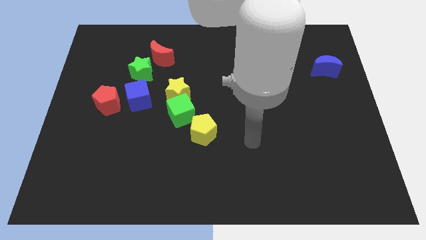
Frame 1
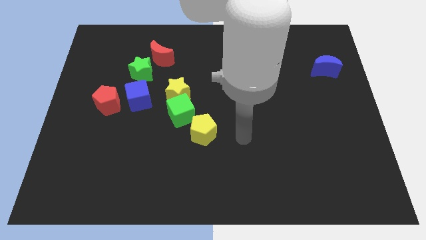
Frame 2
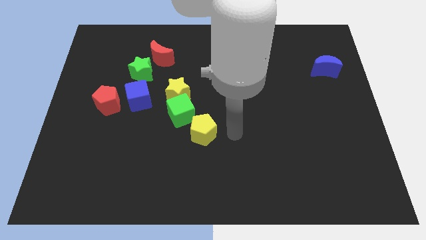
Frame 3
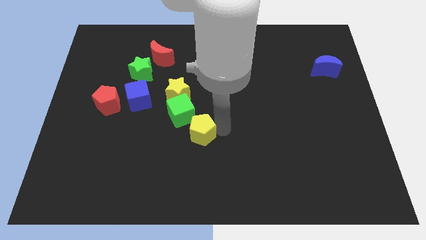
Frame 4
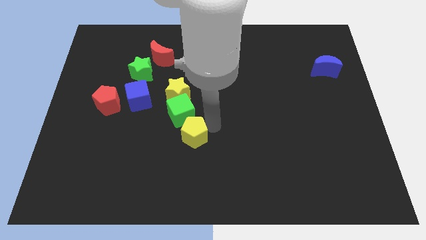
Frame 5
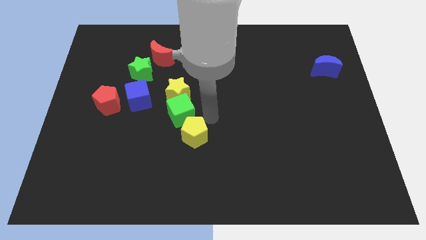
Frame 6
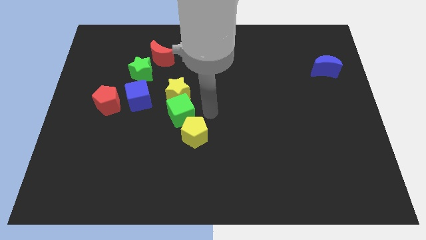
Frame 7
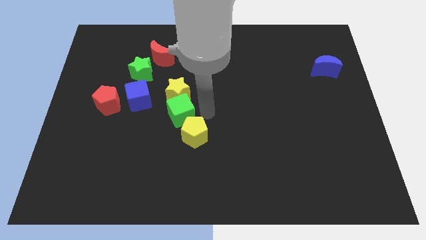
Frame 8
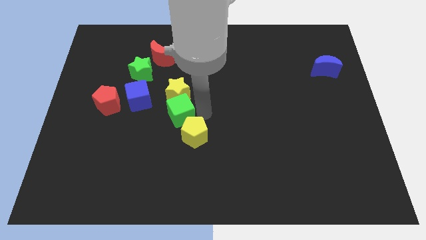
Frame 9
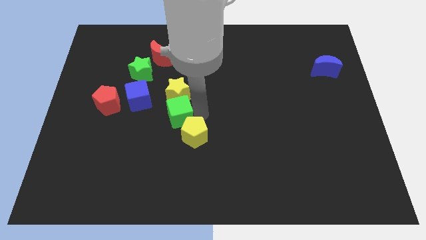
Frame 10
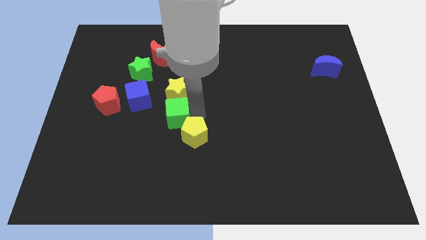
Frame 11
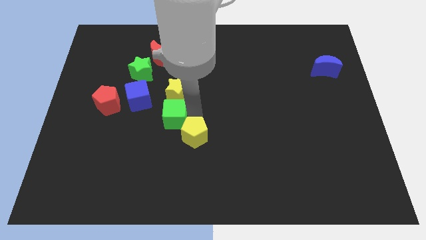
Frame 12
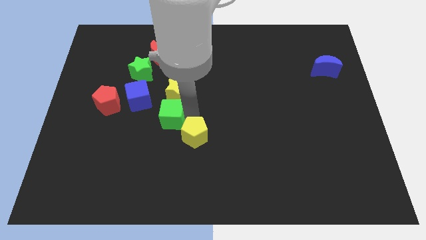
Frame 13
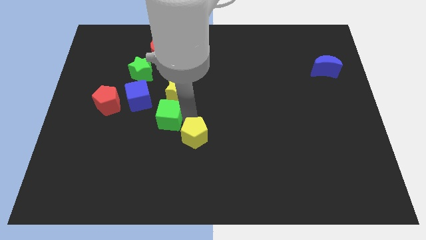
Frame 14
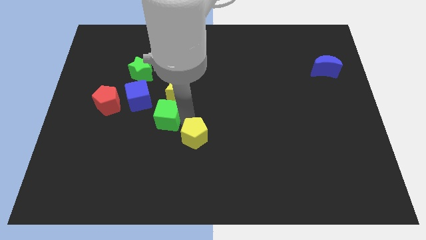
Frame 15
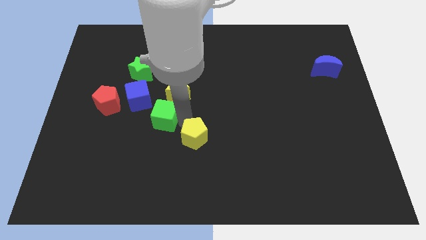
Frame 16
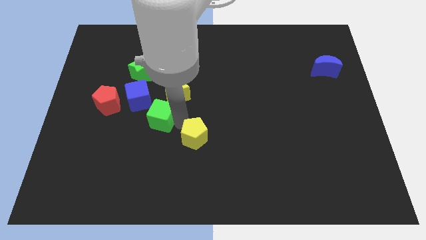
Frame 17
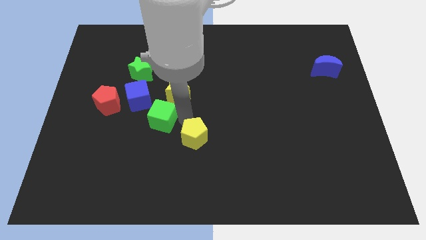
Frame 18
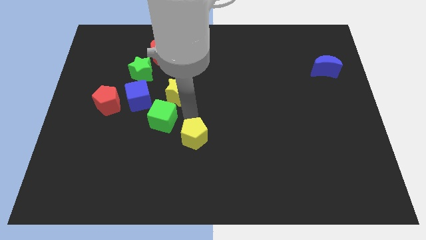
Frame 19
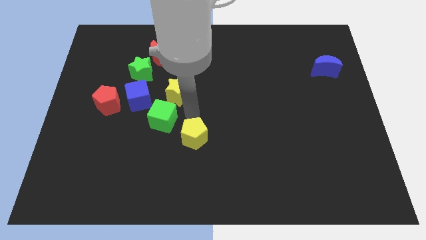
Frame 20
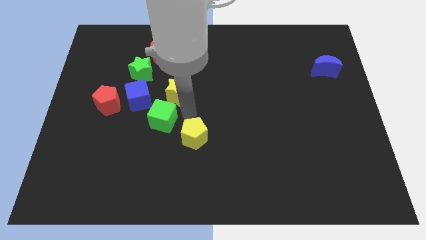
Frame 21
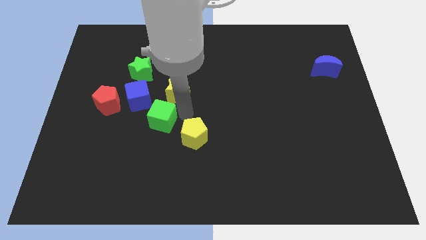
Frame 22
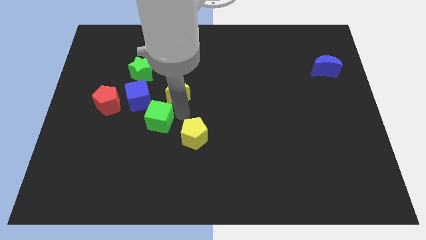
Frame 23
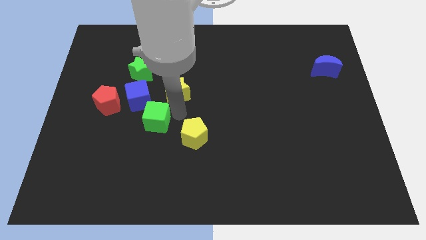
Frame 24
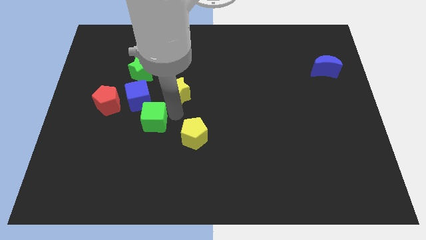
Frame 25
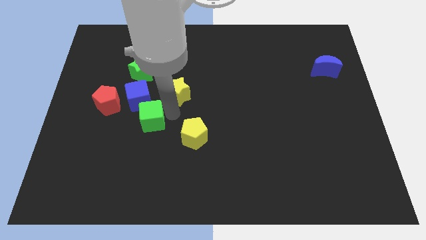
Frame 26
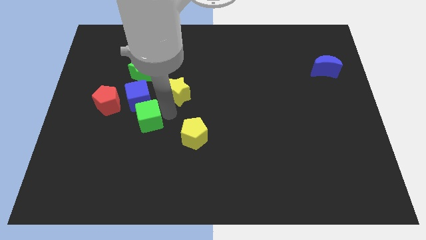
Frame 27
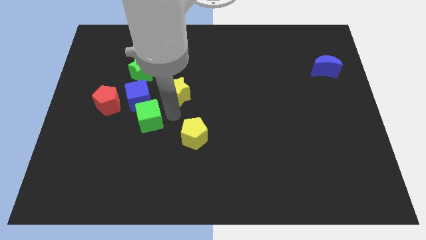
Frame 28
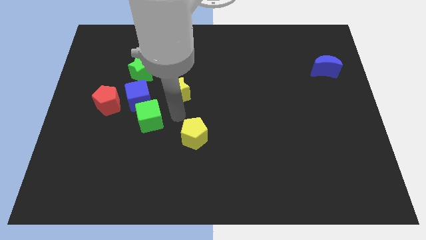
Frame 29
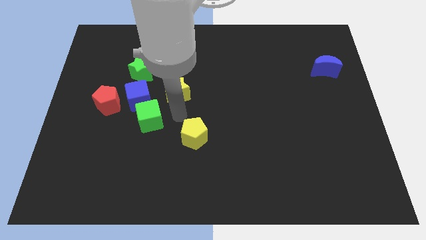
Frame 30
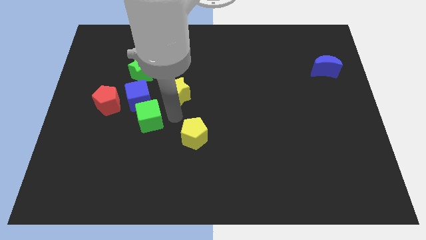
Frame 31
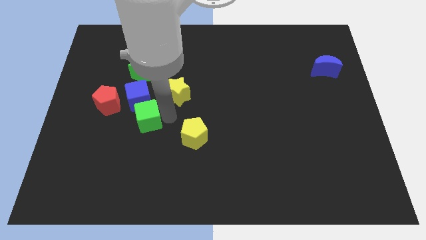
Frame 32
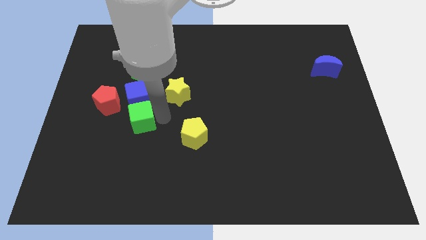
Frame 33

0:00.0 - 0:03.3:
move the green cube away from the yellow star and yellow pentagon

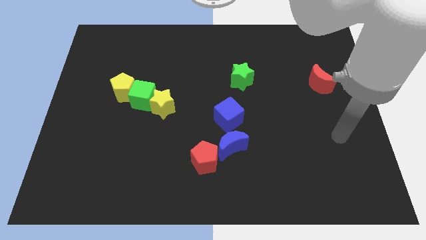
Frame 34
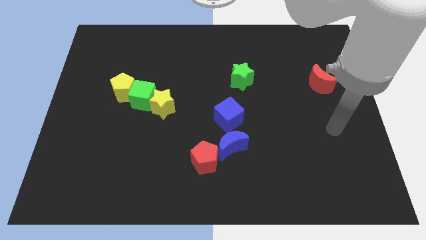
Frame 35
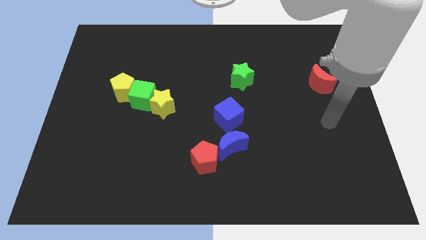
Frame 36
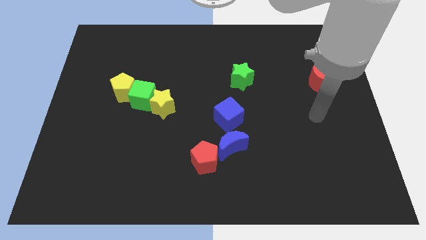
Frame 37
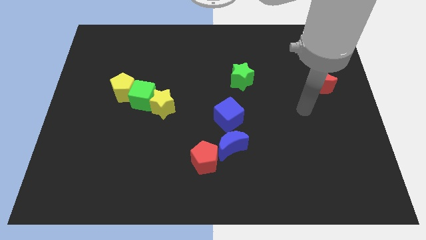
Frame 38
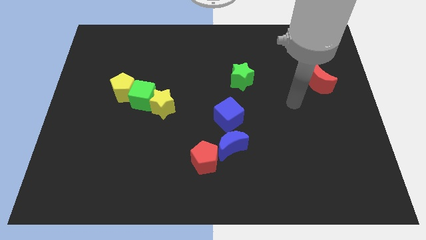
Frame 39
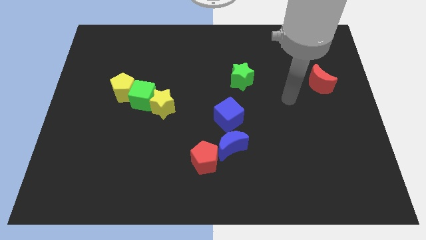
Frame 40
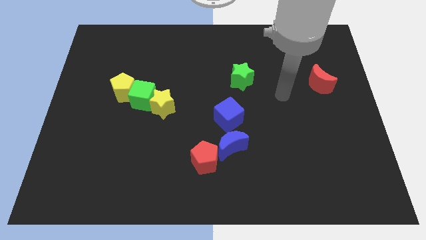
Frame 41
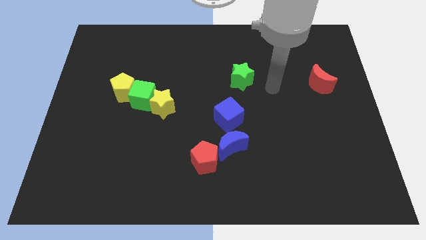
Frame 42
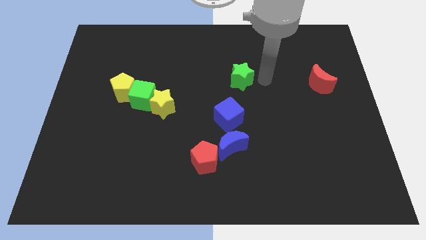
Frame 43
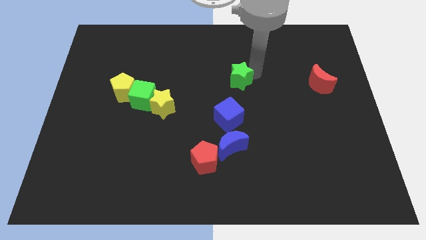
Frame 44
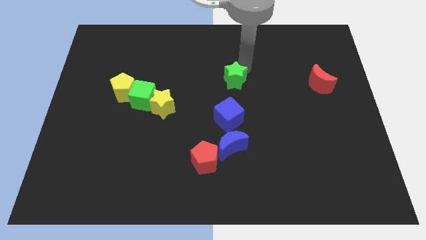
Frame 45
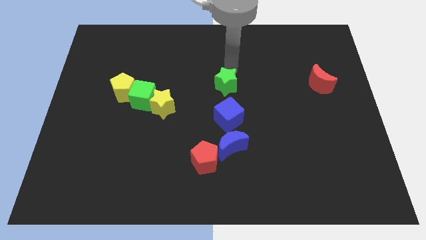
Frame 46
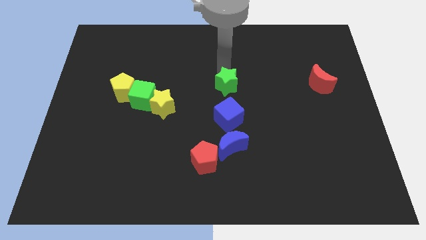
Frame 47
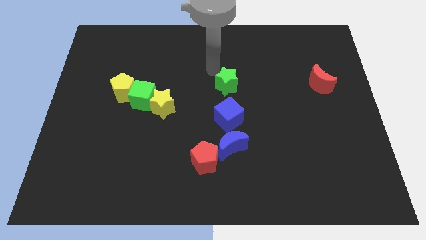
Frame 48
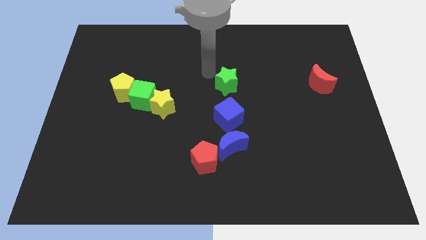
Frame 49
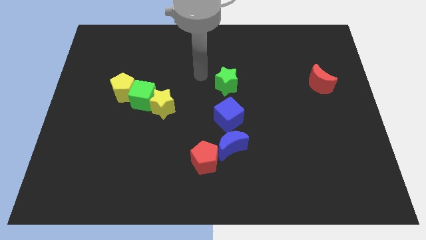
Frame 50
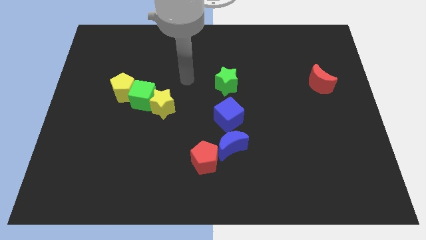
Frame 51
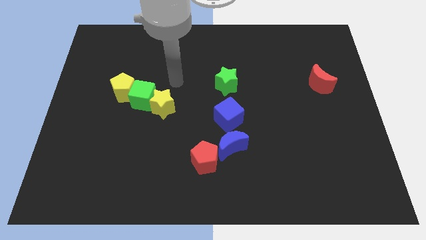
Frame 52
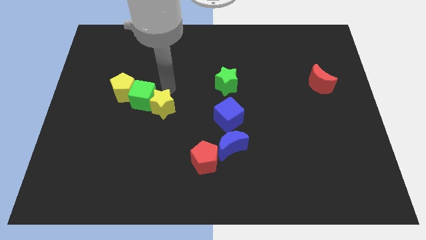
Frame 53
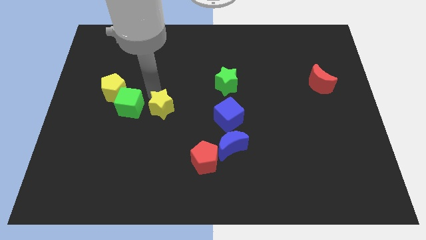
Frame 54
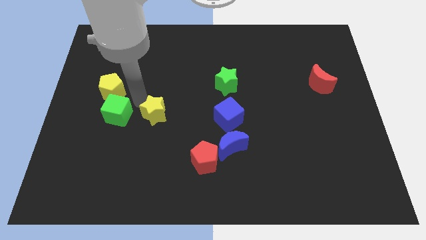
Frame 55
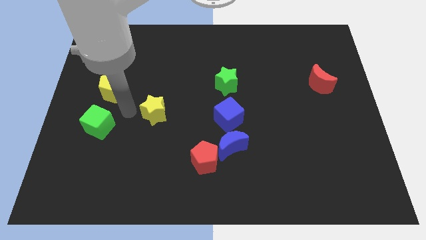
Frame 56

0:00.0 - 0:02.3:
move the yellow star away from the green cube

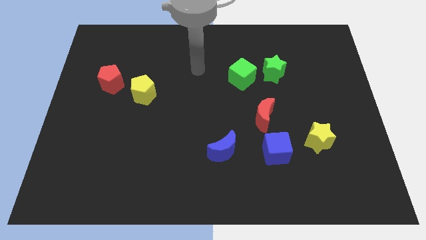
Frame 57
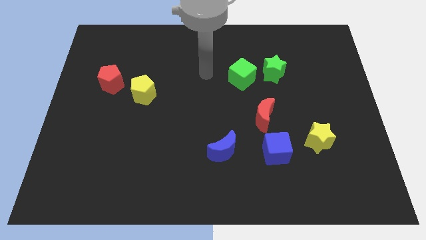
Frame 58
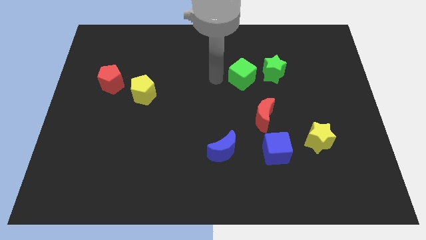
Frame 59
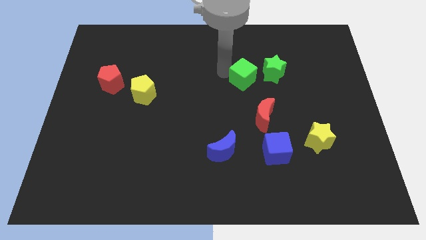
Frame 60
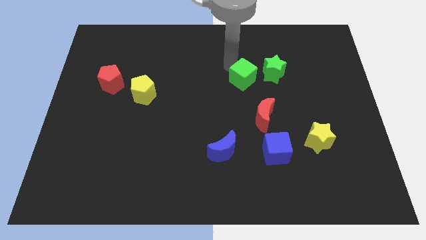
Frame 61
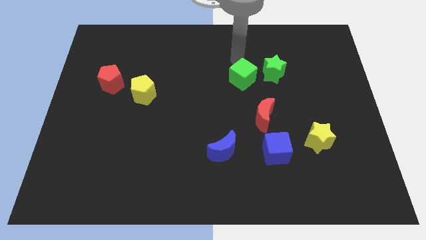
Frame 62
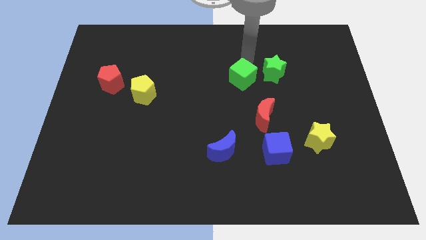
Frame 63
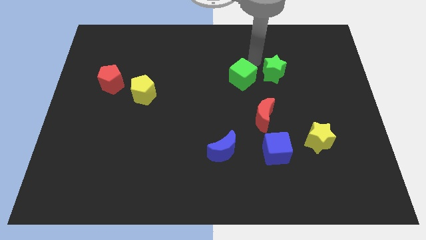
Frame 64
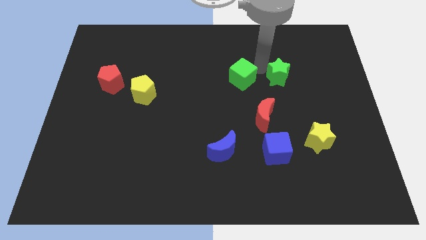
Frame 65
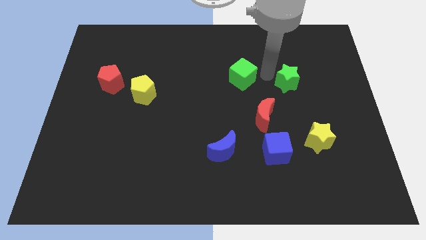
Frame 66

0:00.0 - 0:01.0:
pull the green cube apart from the green star

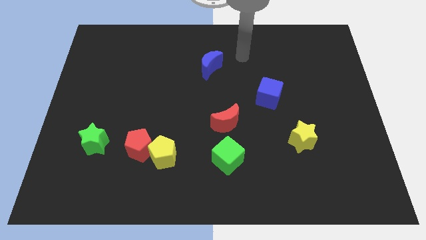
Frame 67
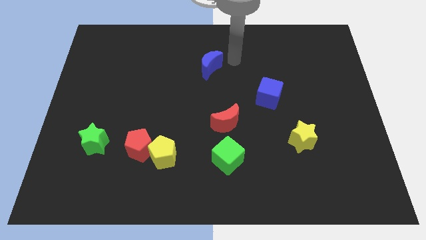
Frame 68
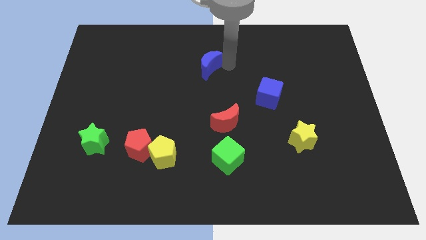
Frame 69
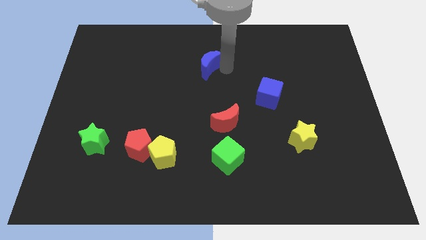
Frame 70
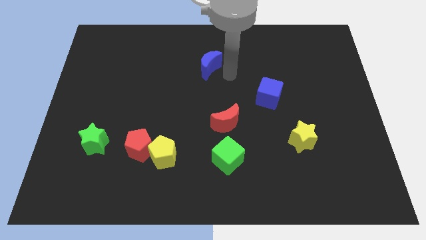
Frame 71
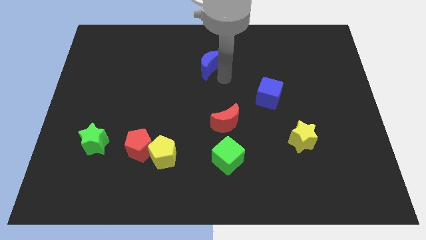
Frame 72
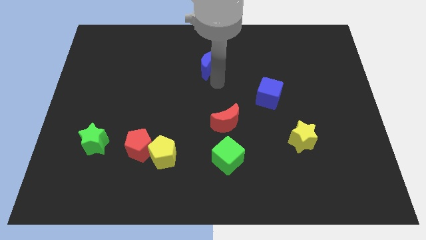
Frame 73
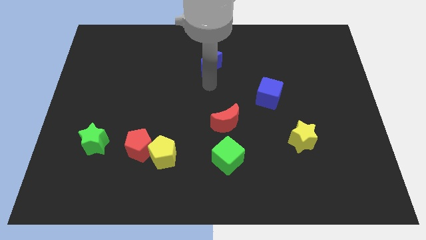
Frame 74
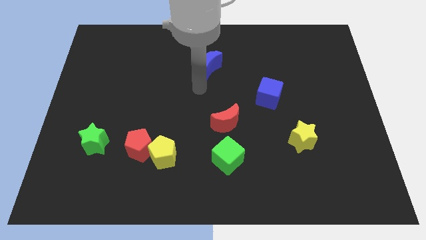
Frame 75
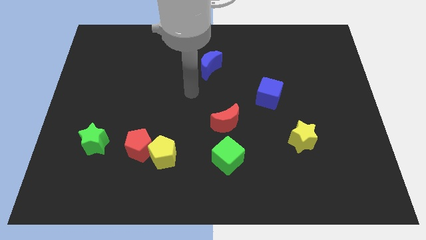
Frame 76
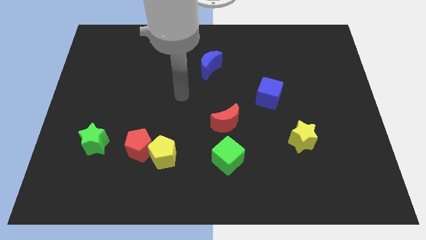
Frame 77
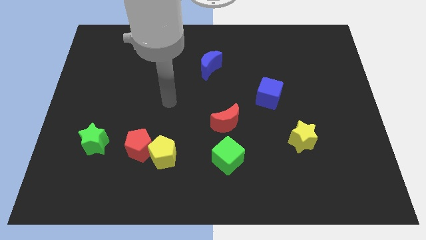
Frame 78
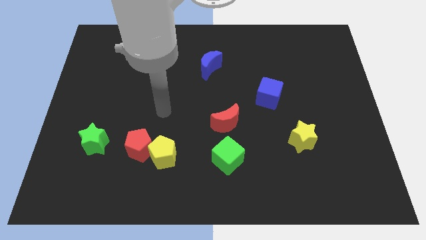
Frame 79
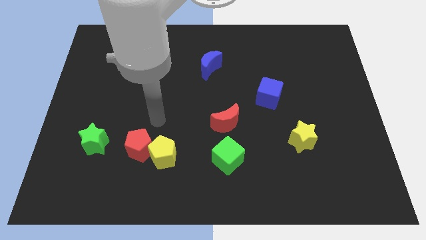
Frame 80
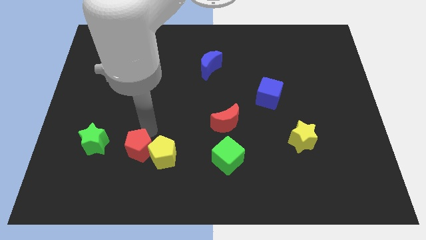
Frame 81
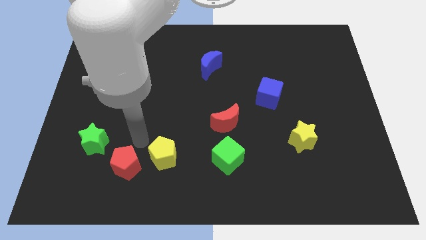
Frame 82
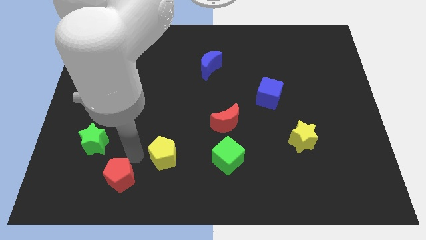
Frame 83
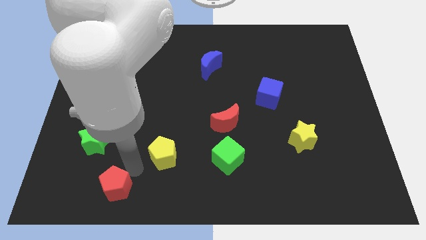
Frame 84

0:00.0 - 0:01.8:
separate the yellow pentagon from the red pentagon

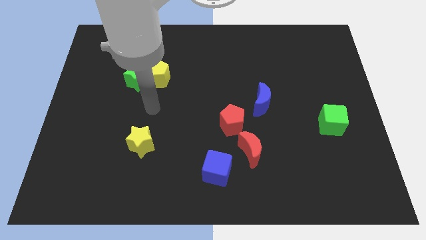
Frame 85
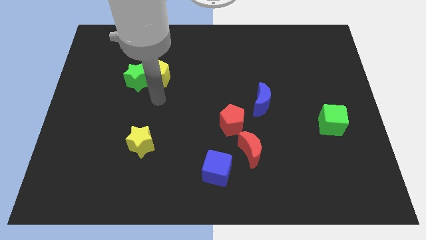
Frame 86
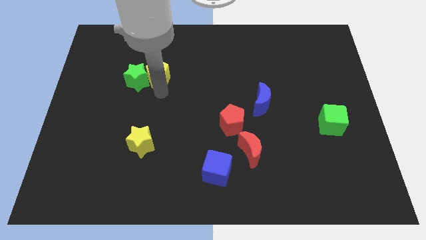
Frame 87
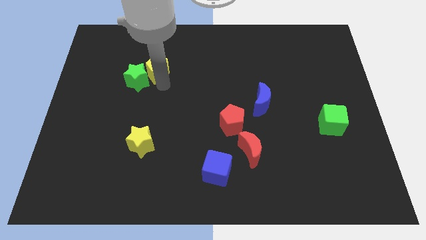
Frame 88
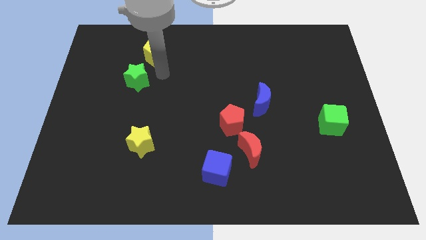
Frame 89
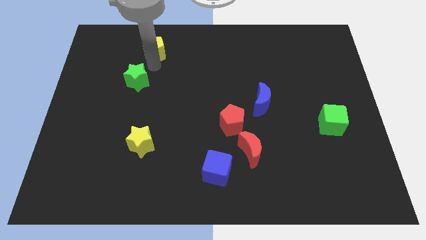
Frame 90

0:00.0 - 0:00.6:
pull the green star apart from the yellow pentagon

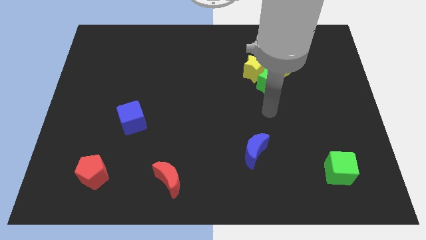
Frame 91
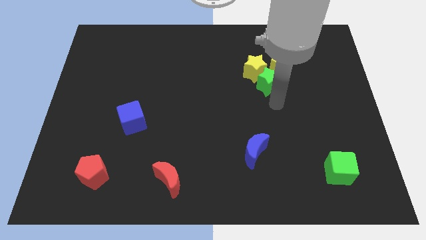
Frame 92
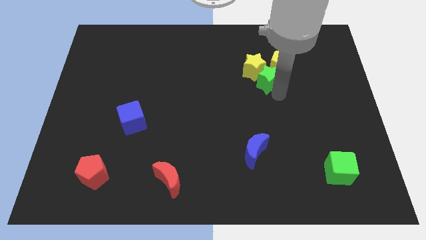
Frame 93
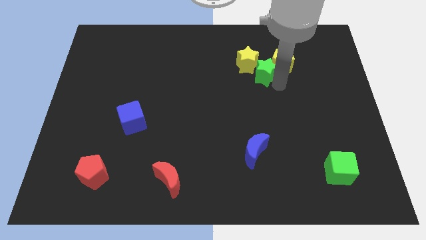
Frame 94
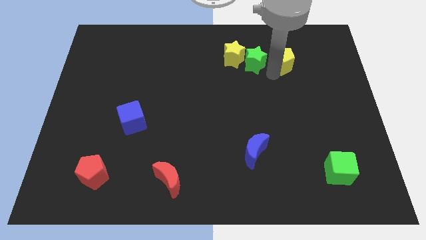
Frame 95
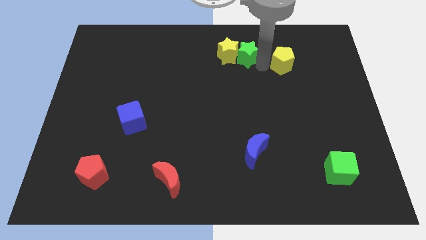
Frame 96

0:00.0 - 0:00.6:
pull the yellow star apart from the green star and yellow pentagon
